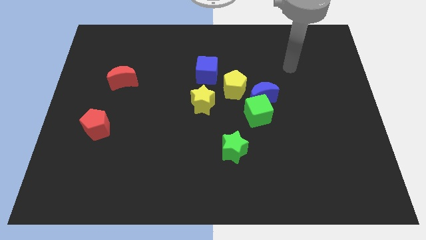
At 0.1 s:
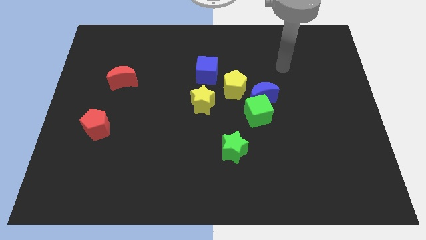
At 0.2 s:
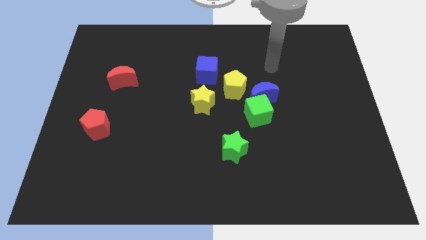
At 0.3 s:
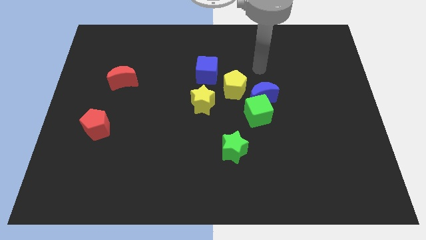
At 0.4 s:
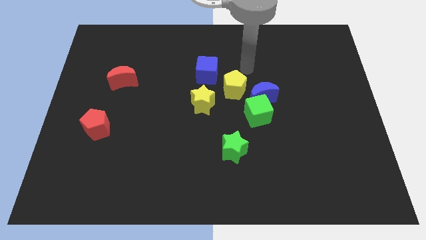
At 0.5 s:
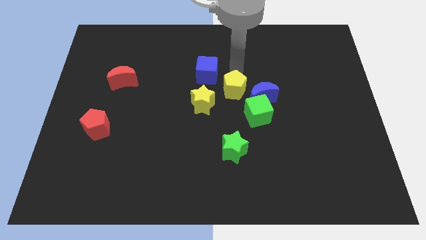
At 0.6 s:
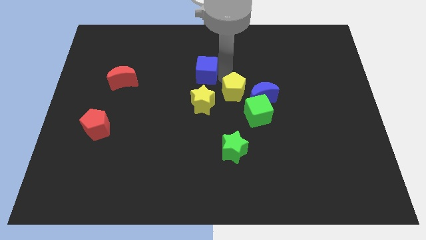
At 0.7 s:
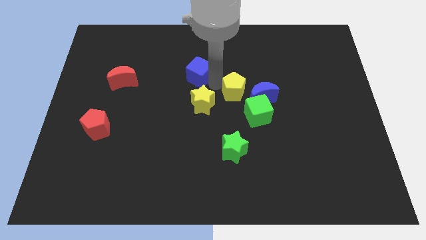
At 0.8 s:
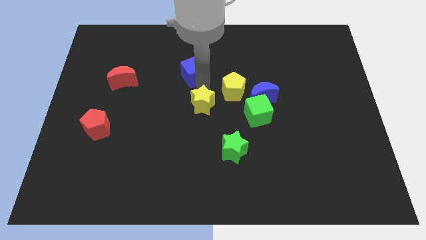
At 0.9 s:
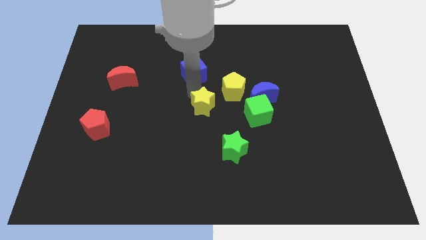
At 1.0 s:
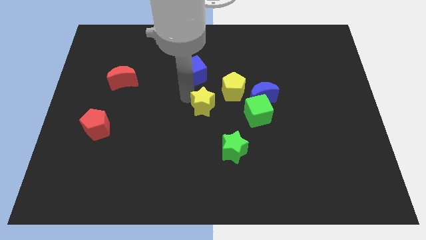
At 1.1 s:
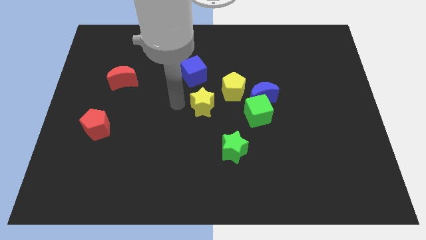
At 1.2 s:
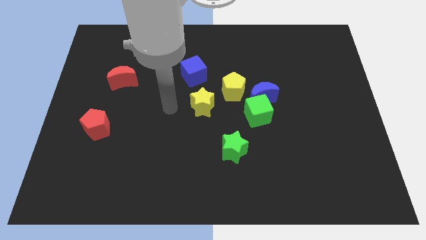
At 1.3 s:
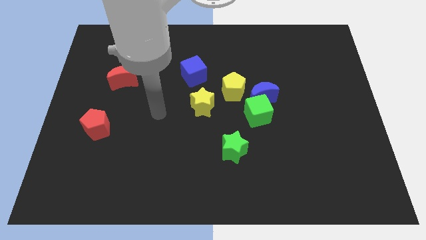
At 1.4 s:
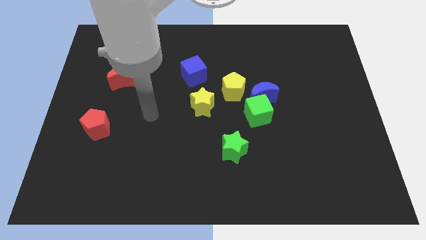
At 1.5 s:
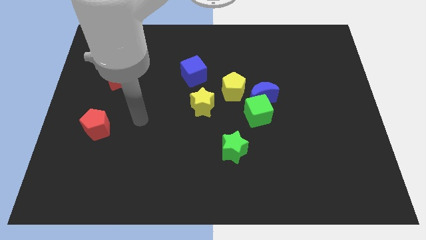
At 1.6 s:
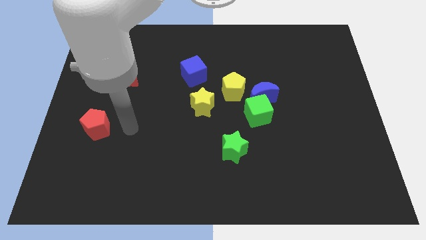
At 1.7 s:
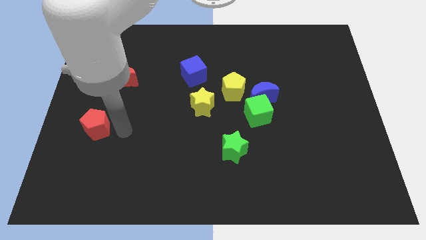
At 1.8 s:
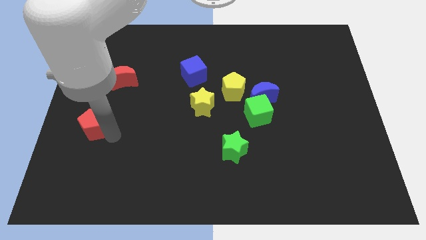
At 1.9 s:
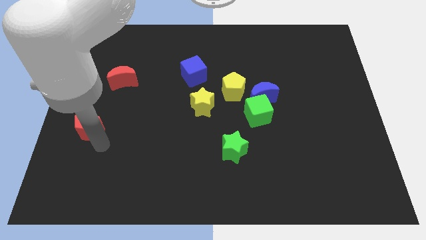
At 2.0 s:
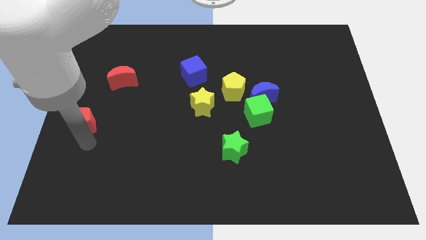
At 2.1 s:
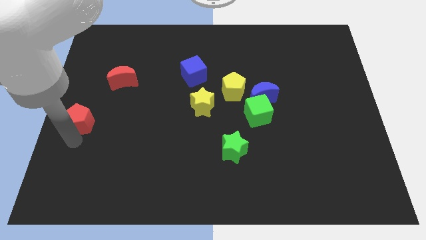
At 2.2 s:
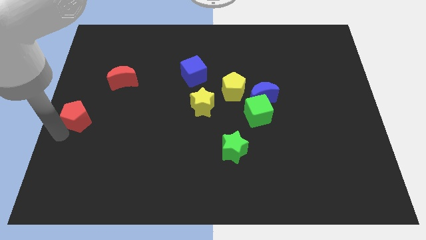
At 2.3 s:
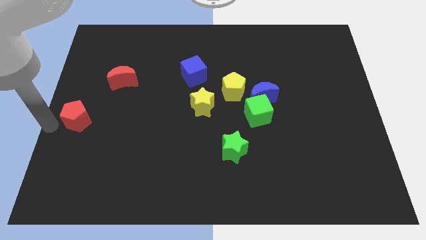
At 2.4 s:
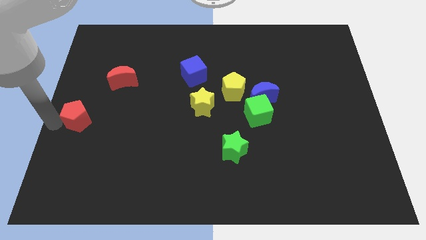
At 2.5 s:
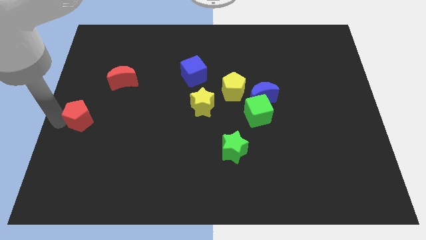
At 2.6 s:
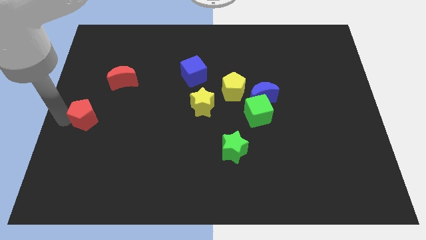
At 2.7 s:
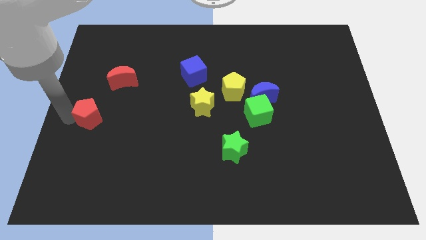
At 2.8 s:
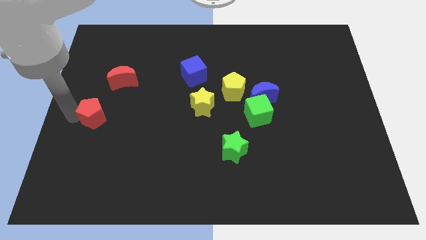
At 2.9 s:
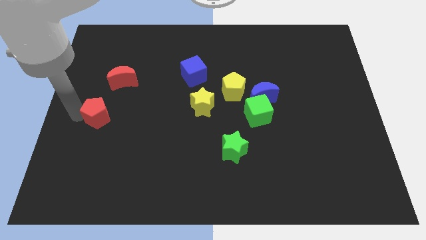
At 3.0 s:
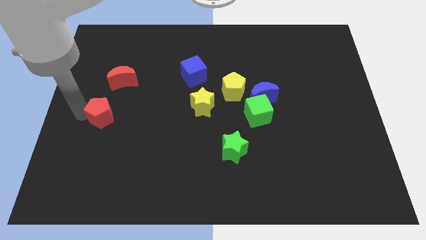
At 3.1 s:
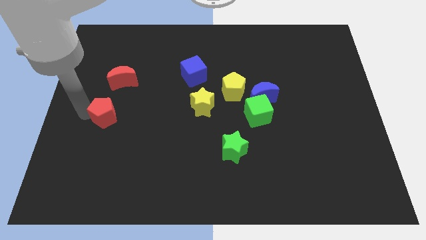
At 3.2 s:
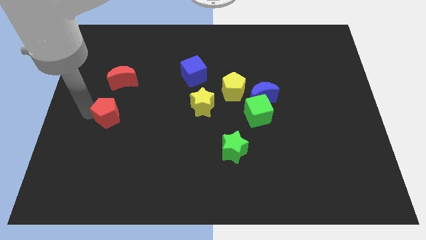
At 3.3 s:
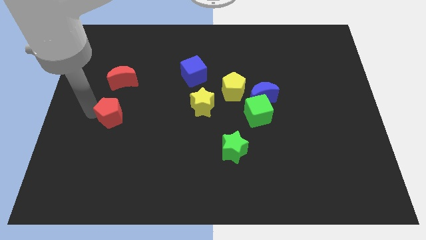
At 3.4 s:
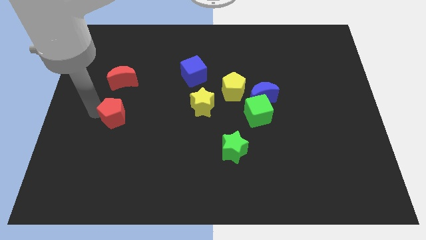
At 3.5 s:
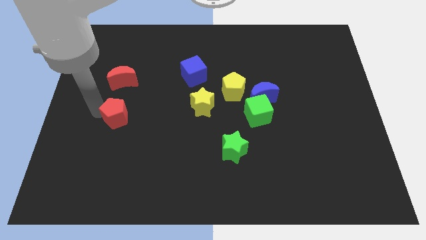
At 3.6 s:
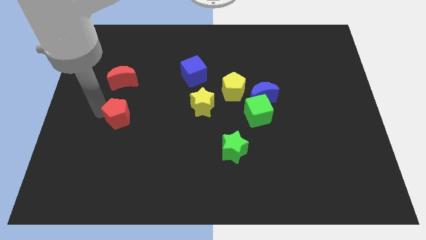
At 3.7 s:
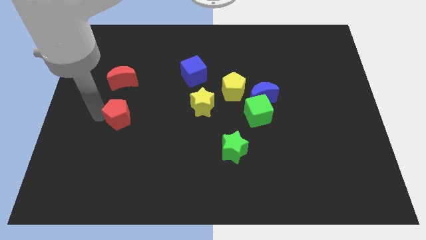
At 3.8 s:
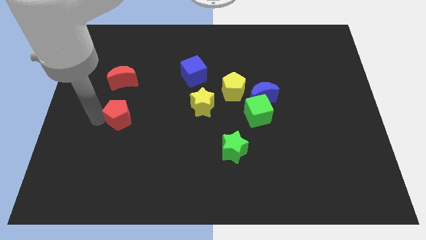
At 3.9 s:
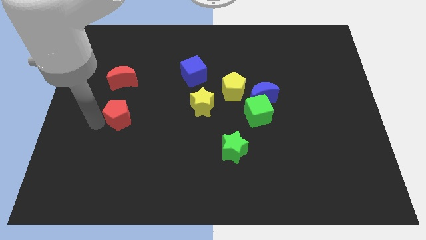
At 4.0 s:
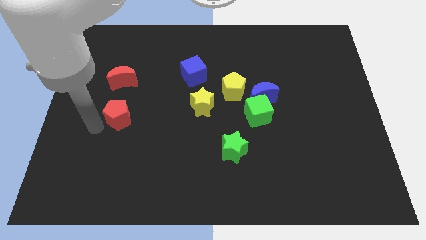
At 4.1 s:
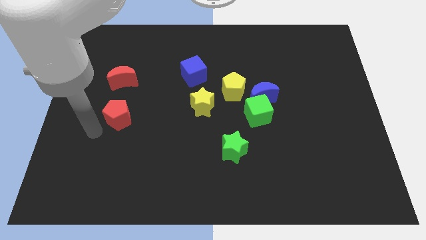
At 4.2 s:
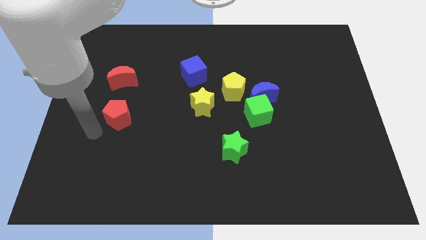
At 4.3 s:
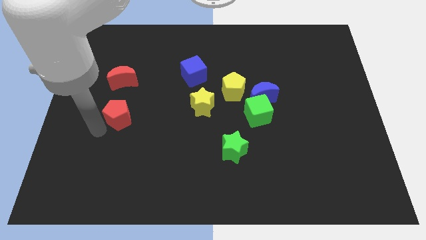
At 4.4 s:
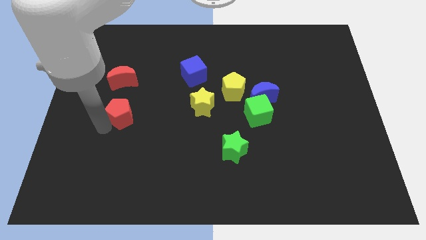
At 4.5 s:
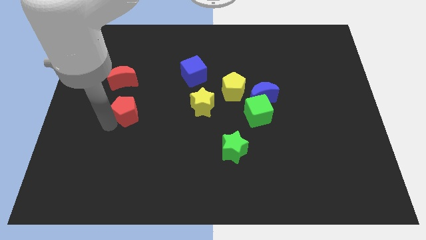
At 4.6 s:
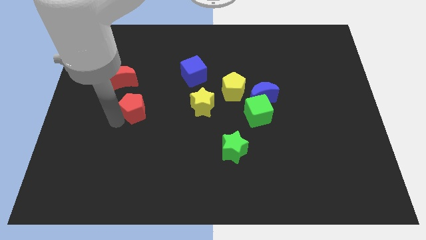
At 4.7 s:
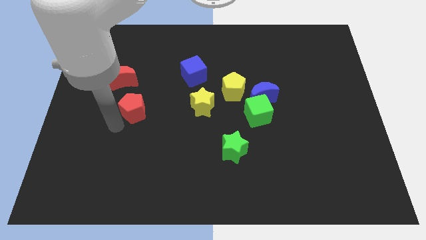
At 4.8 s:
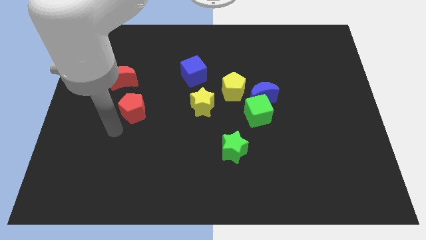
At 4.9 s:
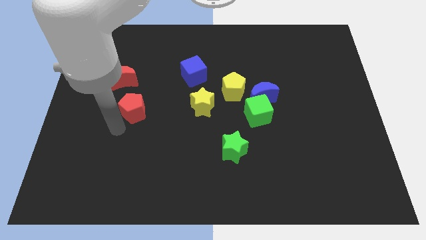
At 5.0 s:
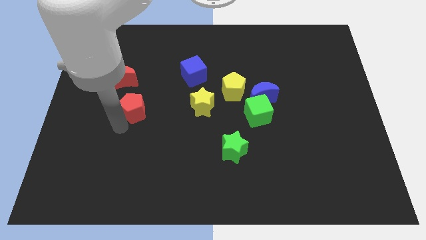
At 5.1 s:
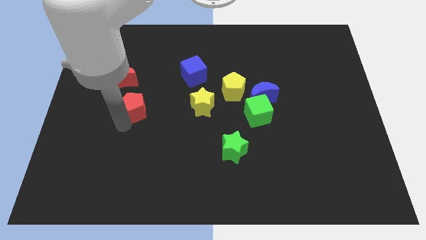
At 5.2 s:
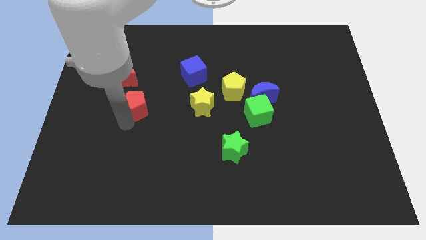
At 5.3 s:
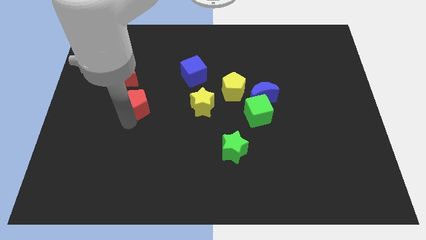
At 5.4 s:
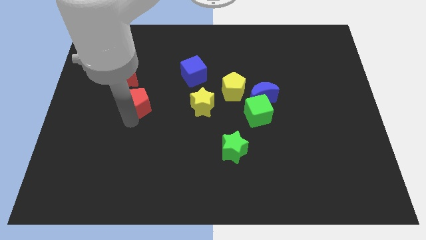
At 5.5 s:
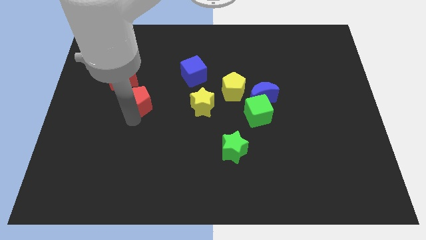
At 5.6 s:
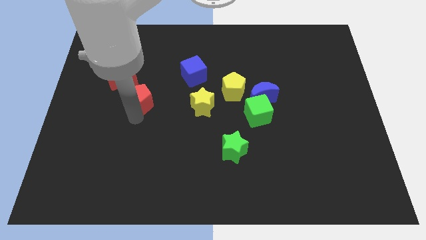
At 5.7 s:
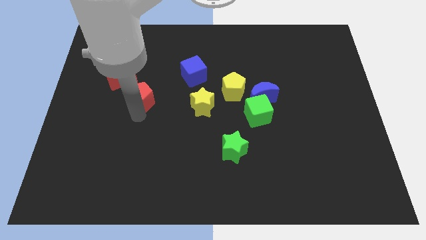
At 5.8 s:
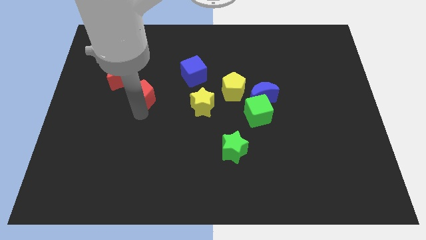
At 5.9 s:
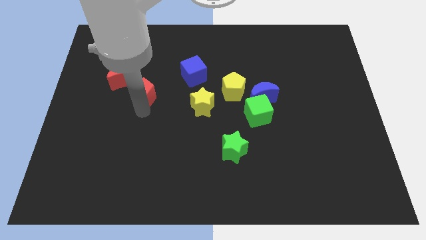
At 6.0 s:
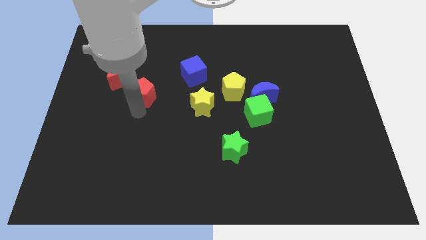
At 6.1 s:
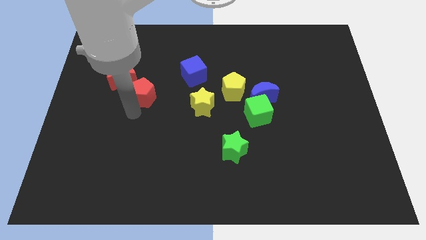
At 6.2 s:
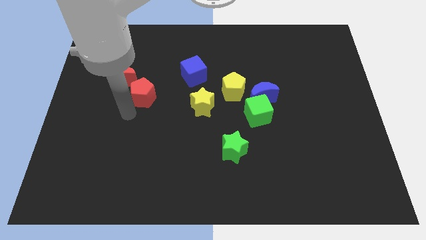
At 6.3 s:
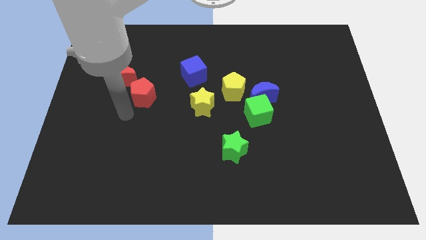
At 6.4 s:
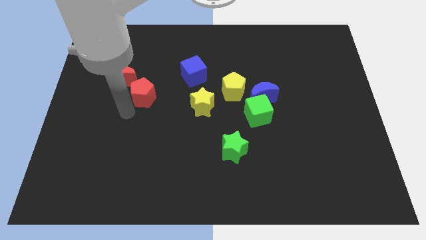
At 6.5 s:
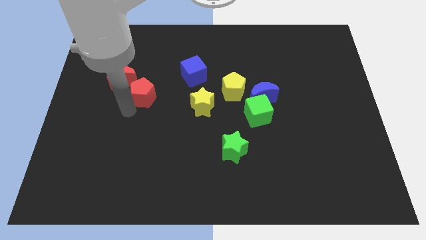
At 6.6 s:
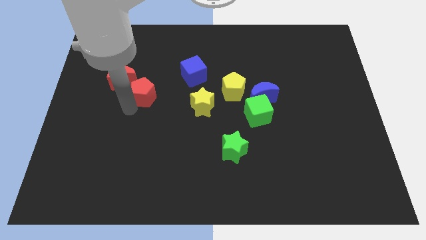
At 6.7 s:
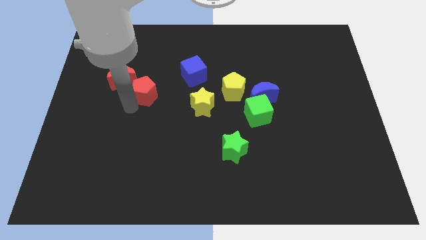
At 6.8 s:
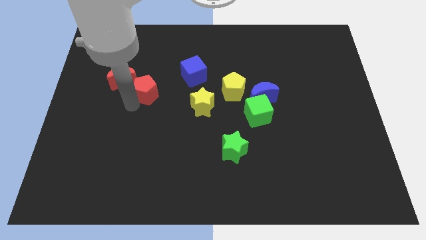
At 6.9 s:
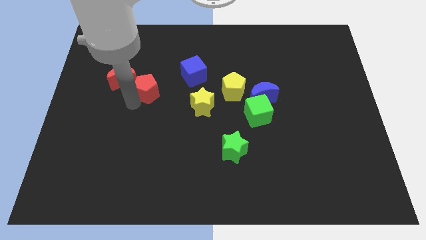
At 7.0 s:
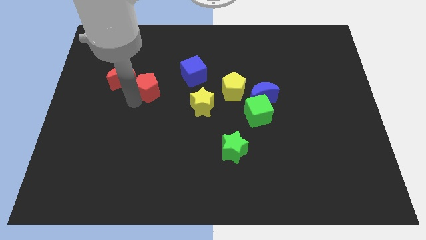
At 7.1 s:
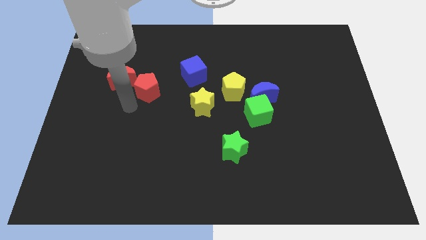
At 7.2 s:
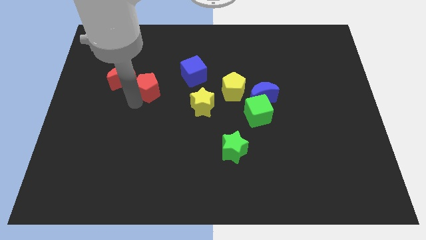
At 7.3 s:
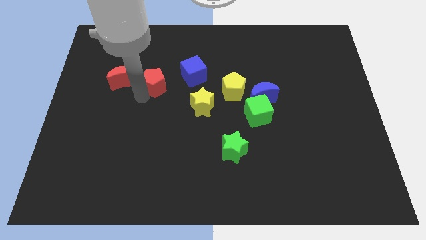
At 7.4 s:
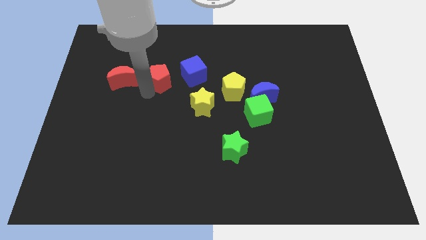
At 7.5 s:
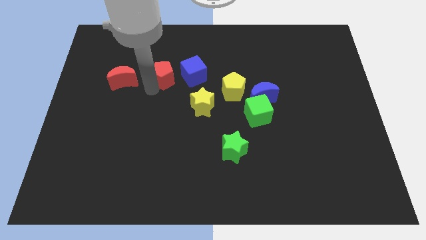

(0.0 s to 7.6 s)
slide the red pentagon up and then right

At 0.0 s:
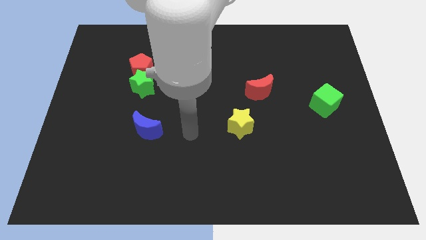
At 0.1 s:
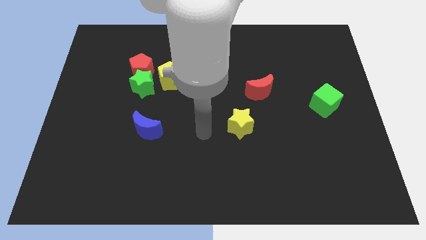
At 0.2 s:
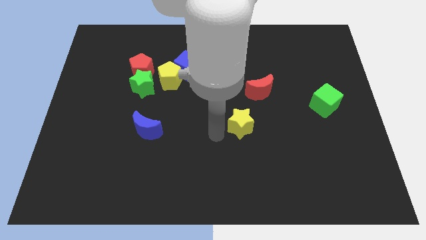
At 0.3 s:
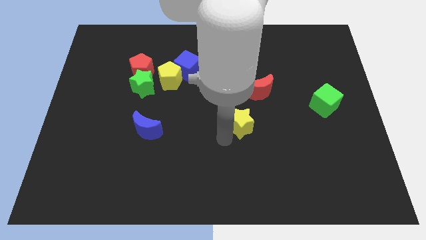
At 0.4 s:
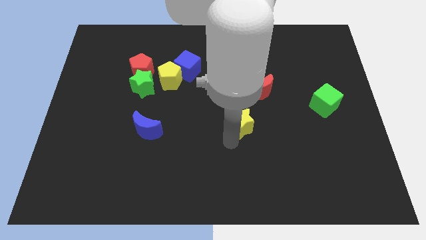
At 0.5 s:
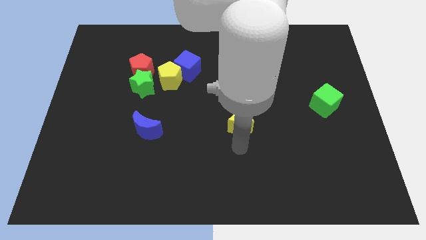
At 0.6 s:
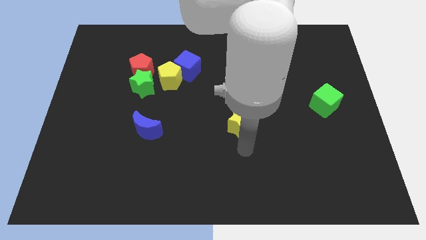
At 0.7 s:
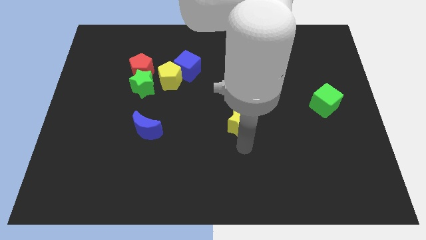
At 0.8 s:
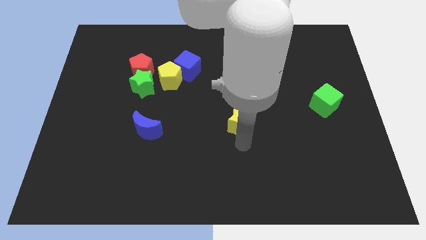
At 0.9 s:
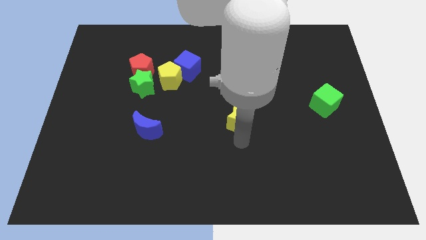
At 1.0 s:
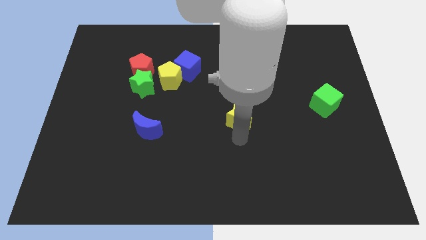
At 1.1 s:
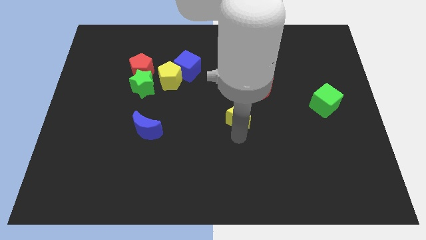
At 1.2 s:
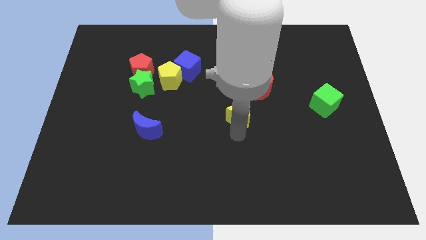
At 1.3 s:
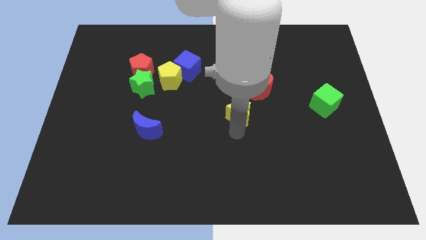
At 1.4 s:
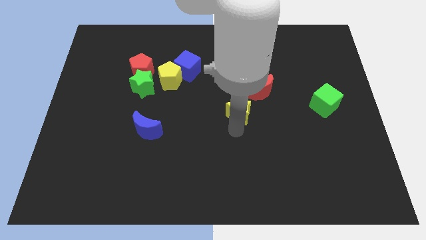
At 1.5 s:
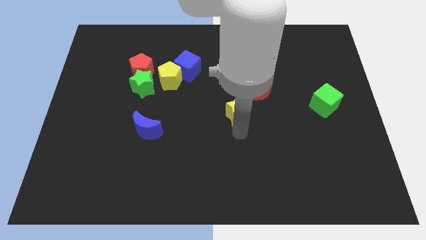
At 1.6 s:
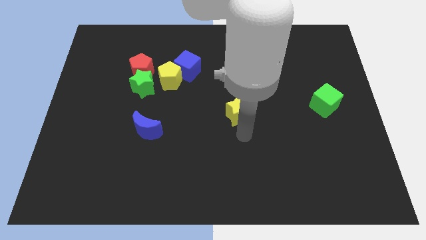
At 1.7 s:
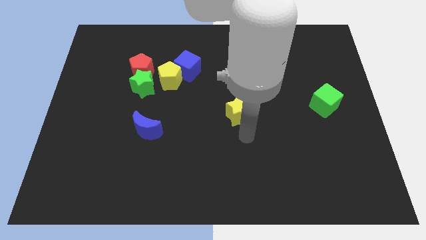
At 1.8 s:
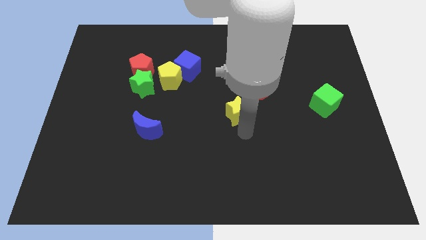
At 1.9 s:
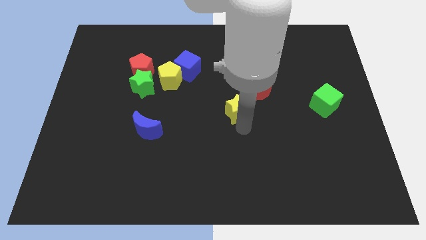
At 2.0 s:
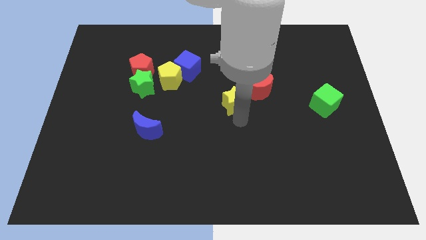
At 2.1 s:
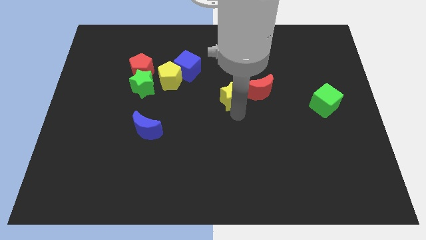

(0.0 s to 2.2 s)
move the yellow star a little upwards
